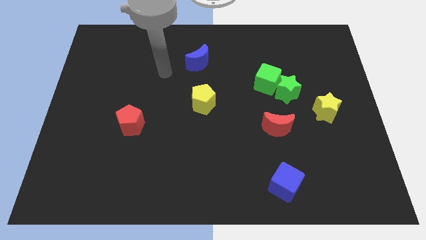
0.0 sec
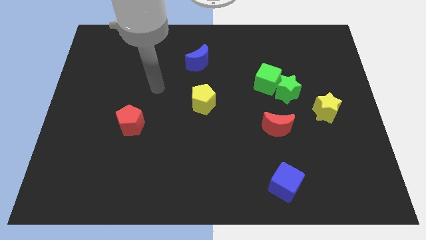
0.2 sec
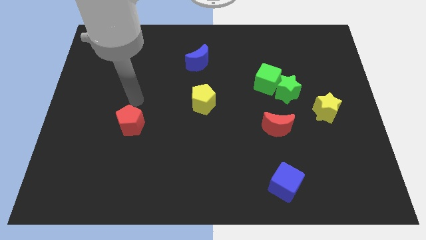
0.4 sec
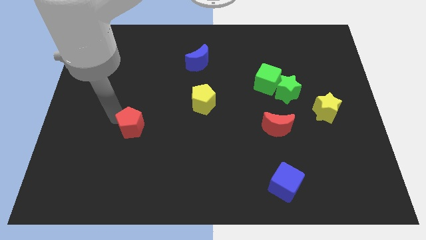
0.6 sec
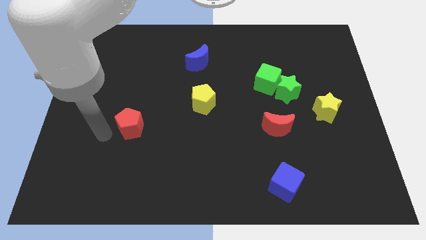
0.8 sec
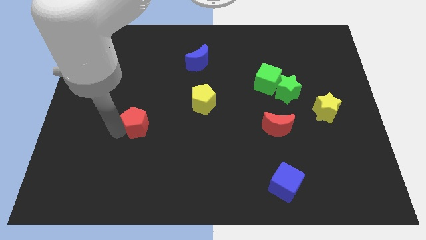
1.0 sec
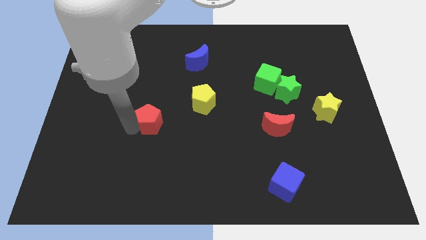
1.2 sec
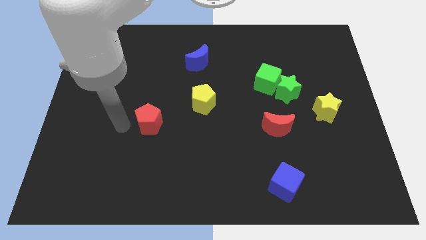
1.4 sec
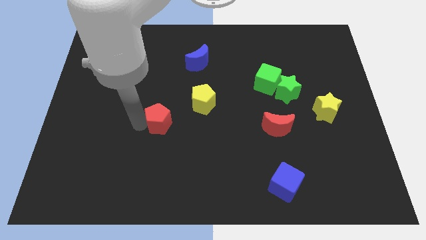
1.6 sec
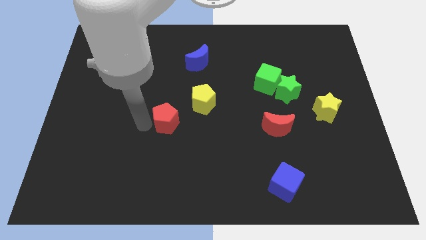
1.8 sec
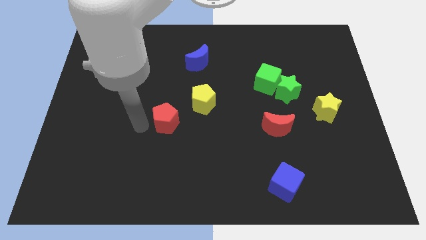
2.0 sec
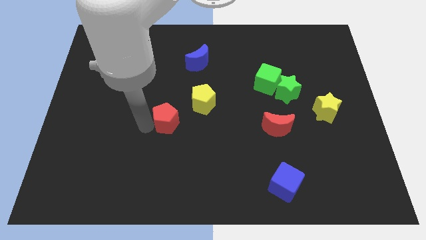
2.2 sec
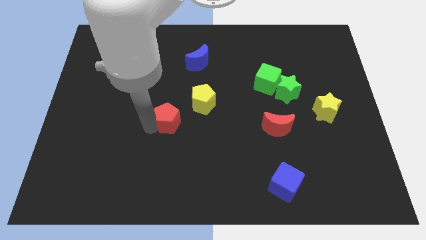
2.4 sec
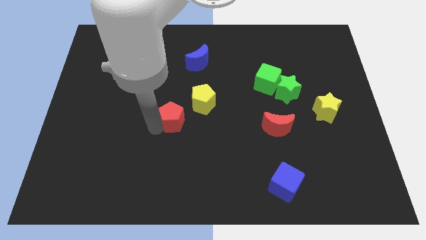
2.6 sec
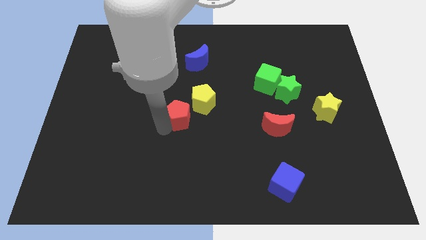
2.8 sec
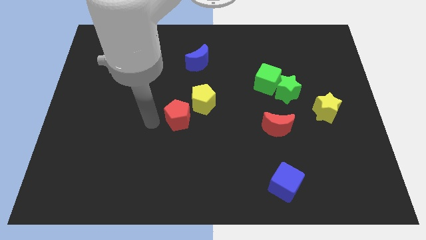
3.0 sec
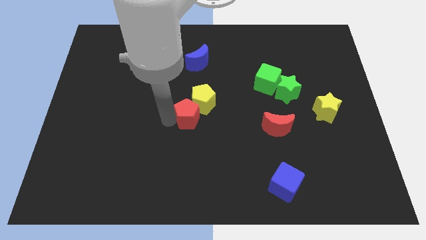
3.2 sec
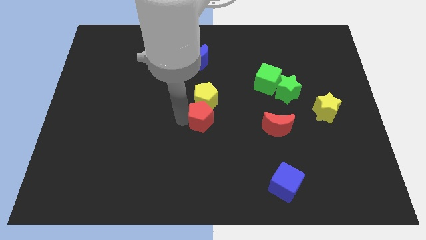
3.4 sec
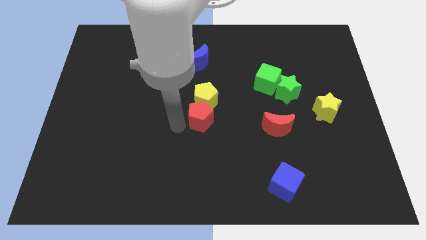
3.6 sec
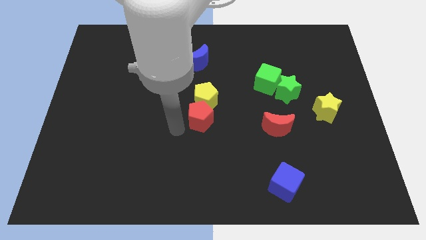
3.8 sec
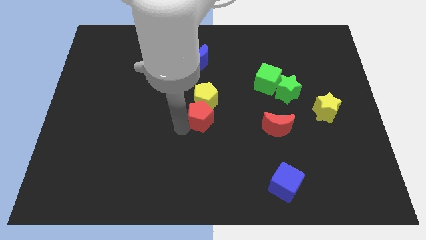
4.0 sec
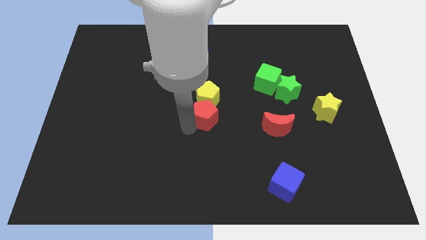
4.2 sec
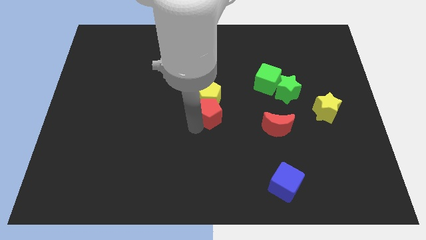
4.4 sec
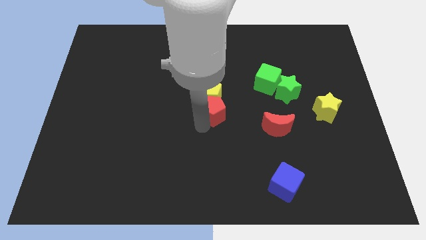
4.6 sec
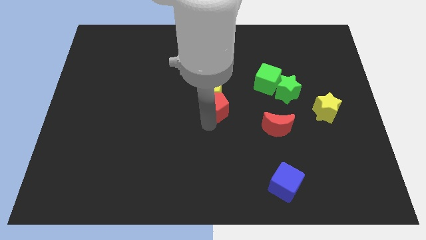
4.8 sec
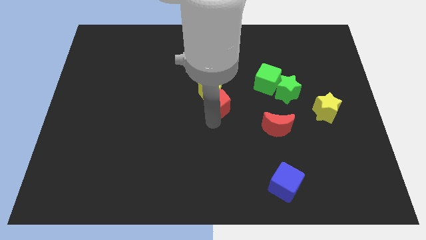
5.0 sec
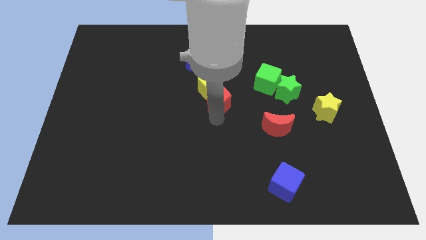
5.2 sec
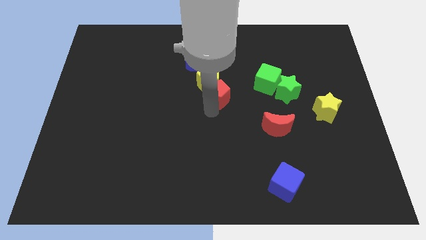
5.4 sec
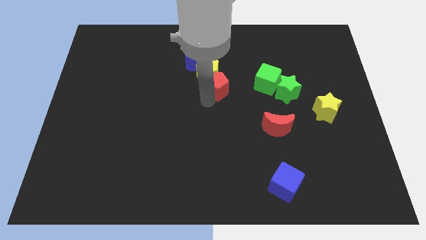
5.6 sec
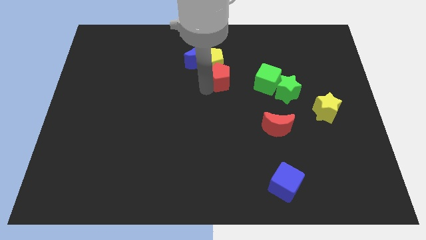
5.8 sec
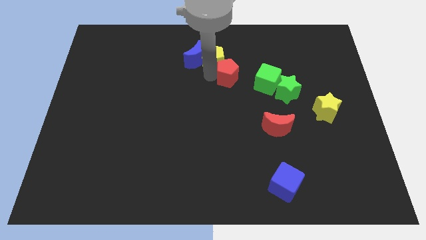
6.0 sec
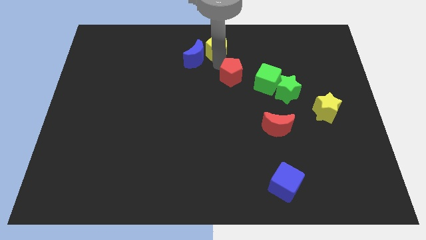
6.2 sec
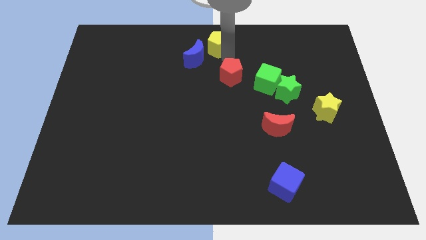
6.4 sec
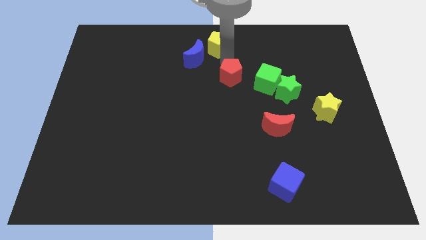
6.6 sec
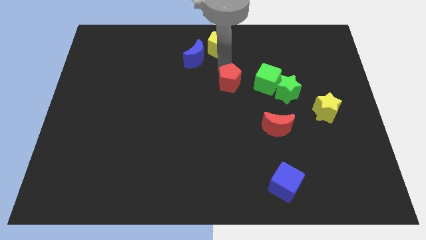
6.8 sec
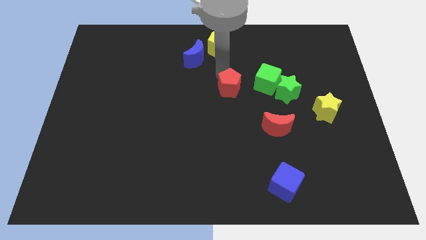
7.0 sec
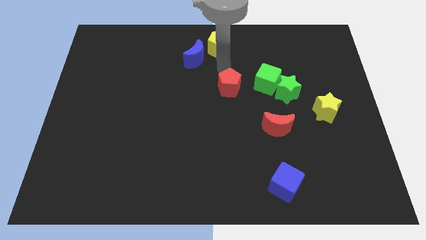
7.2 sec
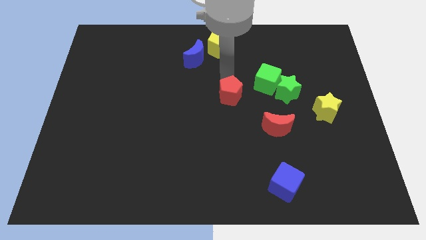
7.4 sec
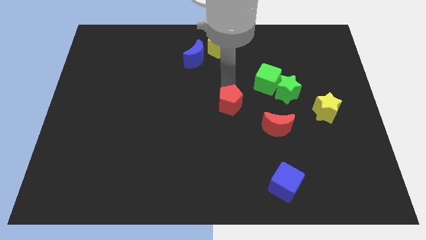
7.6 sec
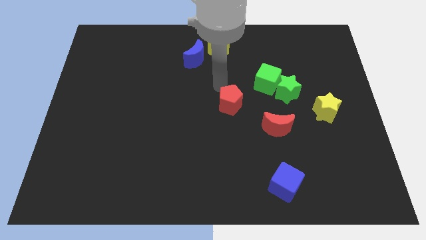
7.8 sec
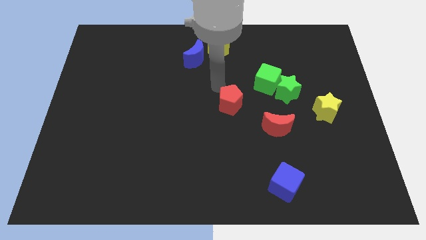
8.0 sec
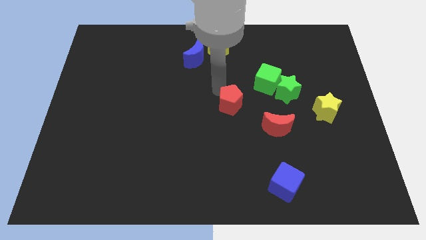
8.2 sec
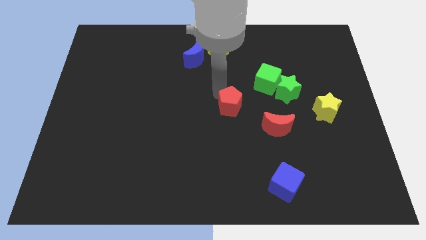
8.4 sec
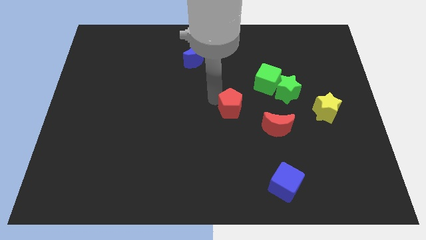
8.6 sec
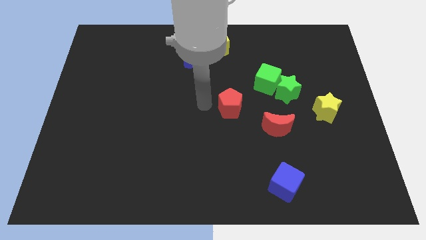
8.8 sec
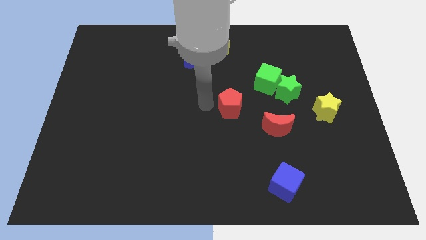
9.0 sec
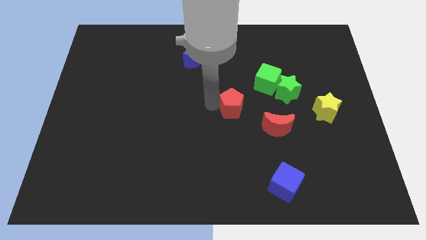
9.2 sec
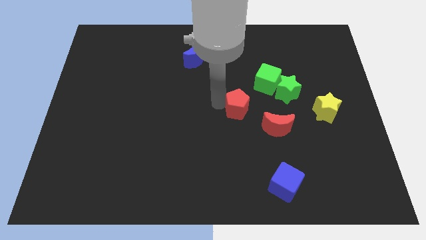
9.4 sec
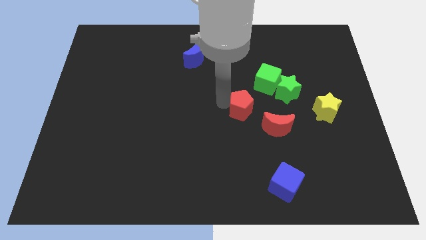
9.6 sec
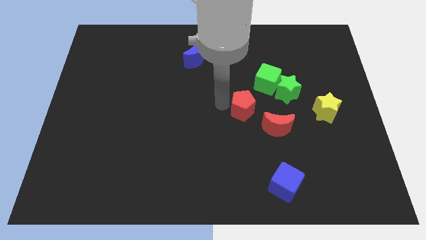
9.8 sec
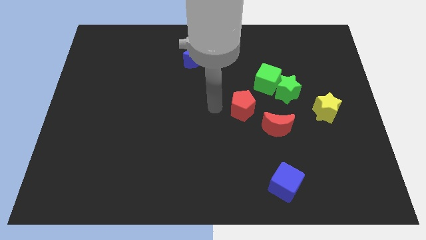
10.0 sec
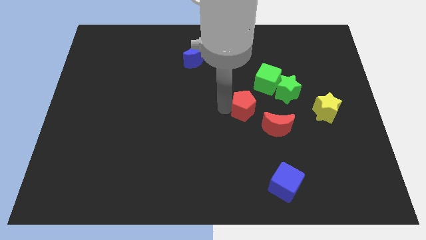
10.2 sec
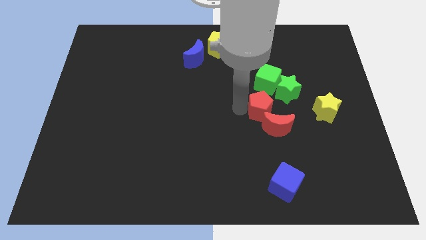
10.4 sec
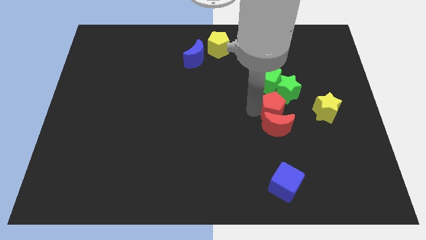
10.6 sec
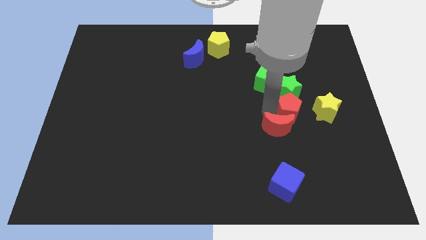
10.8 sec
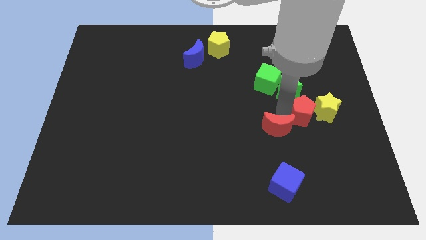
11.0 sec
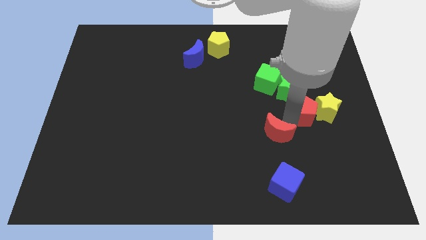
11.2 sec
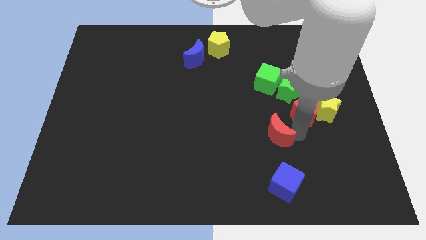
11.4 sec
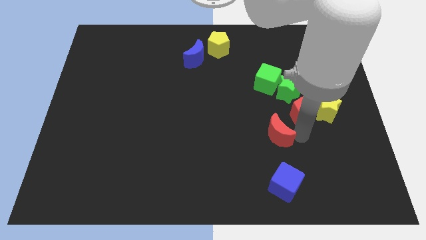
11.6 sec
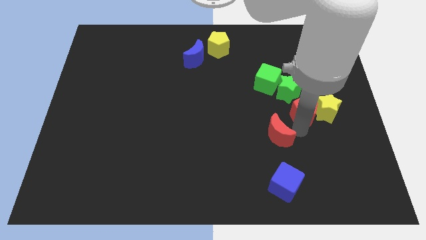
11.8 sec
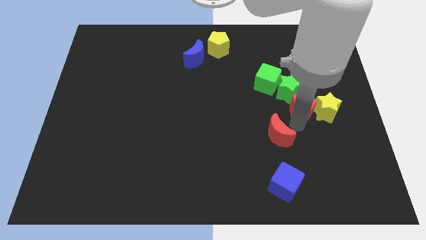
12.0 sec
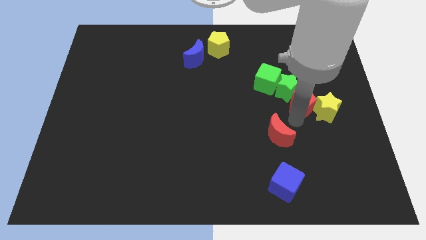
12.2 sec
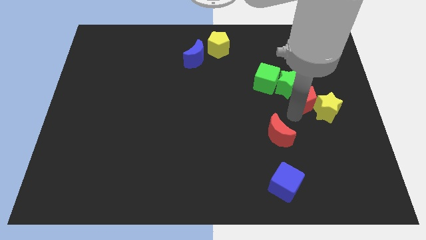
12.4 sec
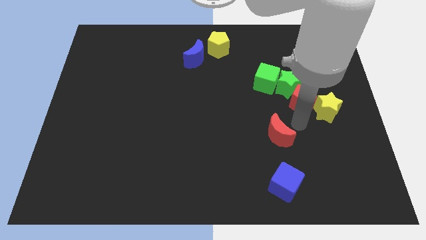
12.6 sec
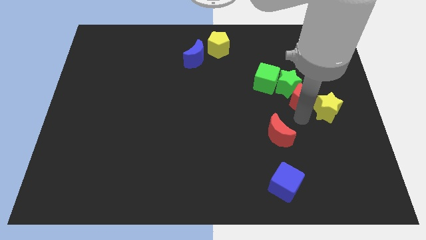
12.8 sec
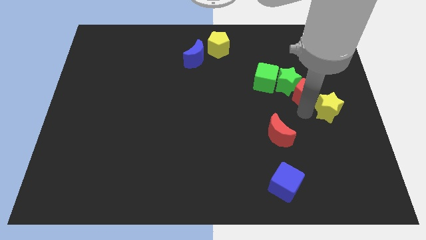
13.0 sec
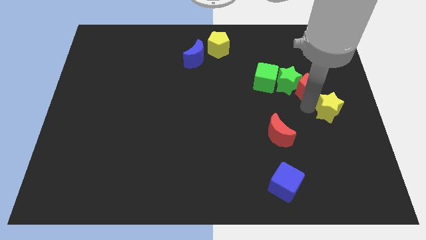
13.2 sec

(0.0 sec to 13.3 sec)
put the red pentagon to the top right of the green star
